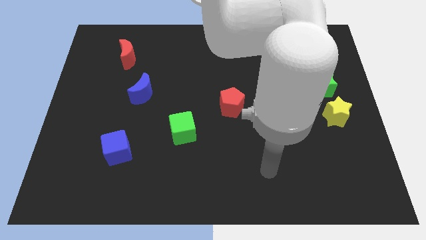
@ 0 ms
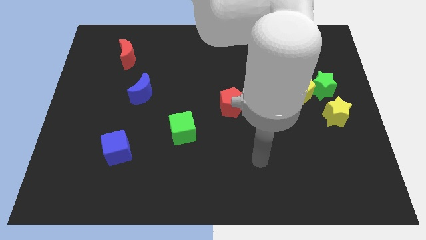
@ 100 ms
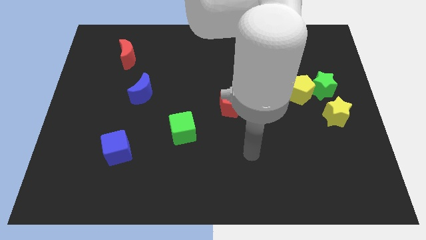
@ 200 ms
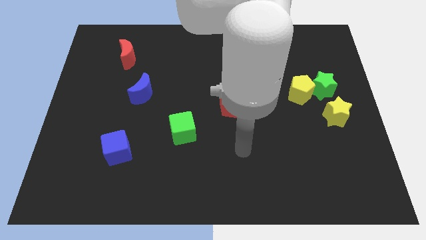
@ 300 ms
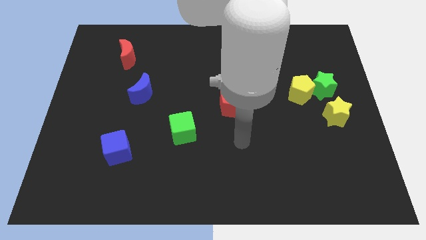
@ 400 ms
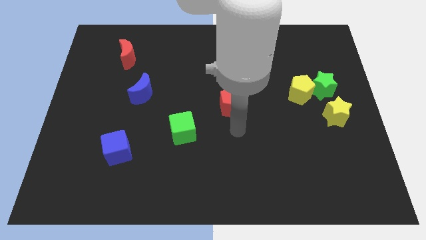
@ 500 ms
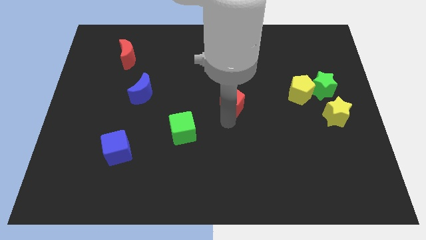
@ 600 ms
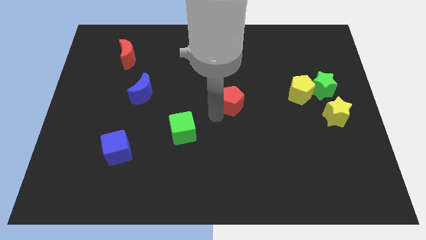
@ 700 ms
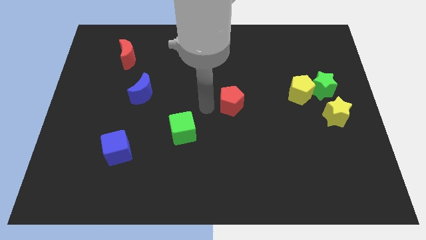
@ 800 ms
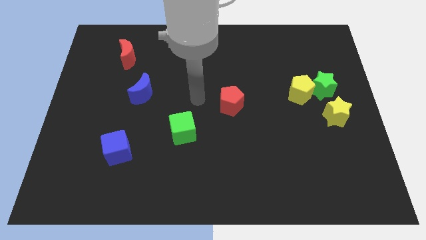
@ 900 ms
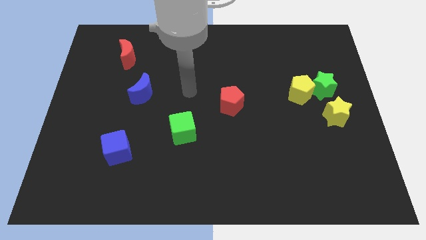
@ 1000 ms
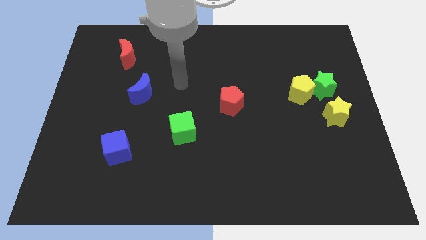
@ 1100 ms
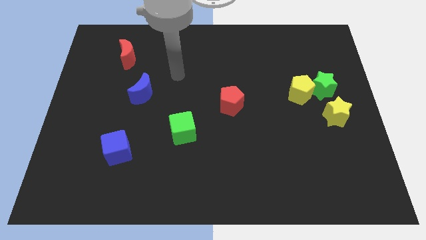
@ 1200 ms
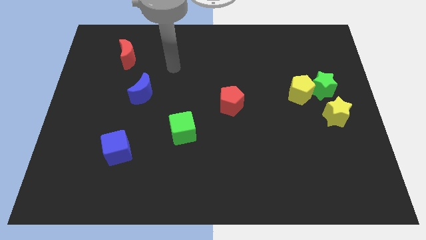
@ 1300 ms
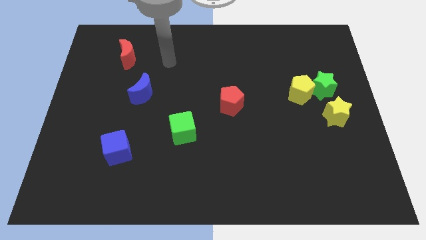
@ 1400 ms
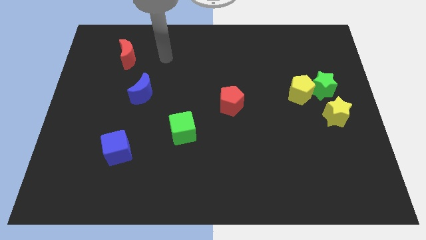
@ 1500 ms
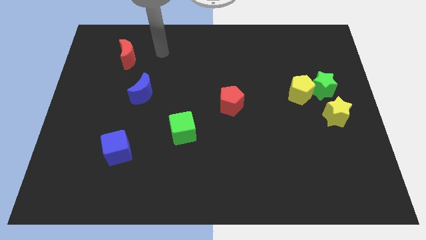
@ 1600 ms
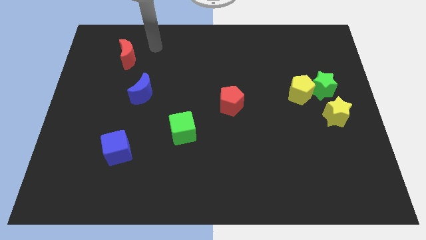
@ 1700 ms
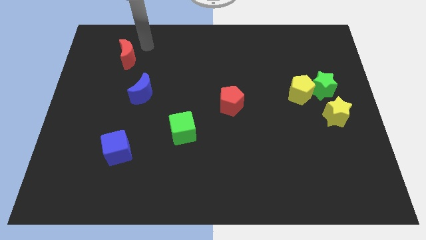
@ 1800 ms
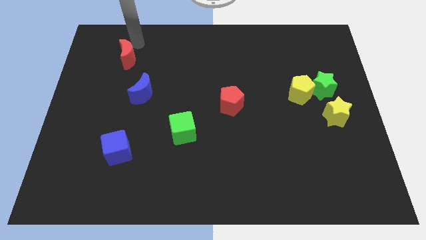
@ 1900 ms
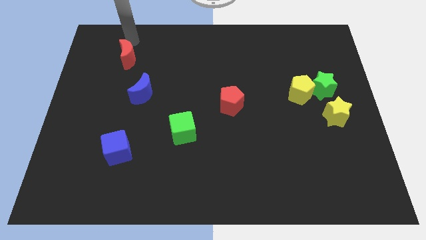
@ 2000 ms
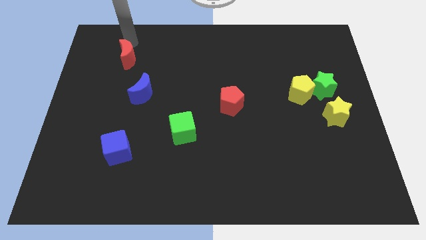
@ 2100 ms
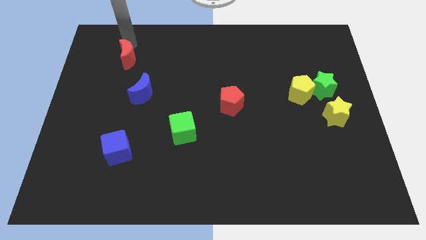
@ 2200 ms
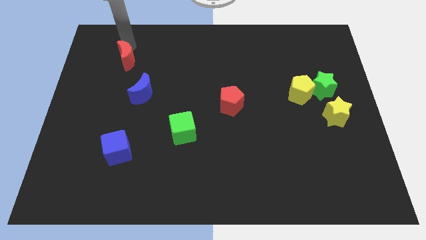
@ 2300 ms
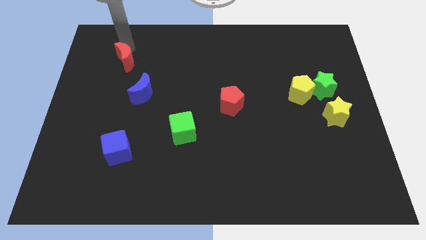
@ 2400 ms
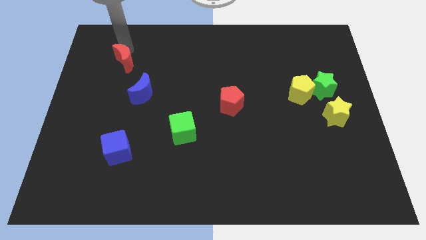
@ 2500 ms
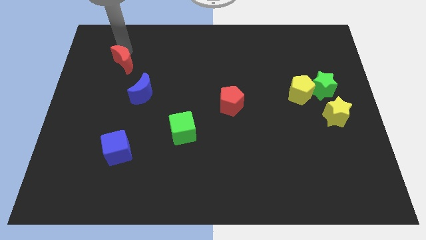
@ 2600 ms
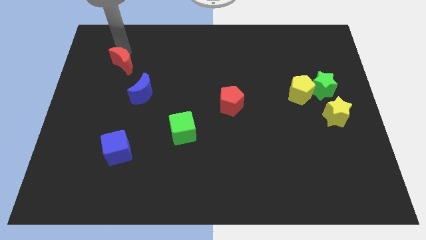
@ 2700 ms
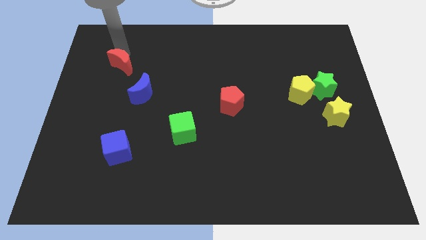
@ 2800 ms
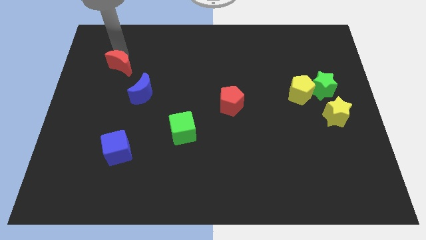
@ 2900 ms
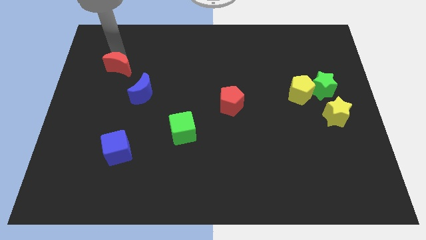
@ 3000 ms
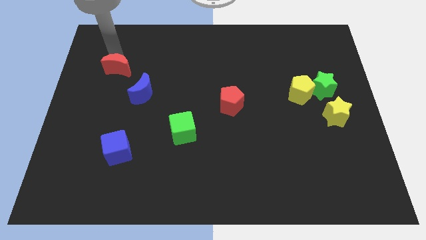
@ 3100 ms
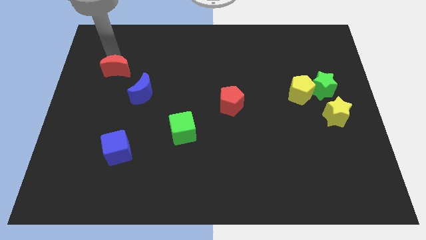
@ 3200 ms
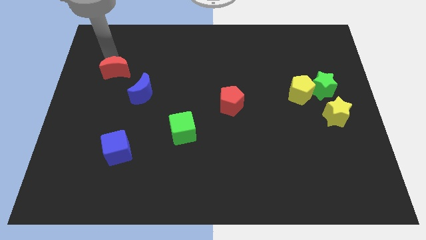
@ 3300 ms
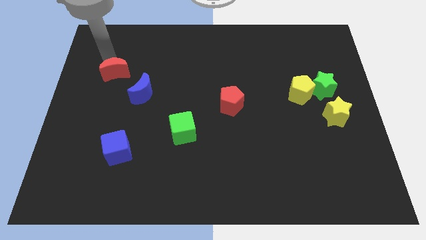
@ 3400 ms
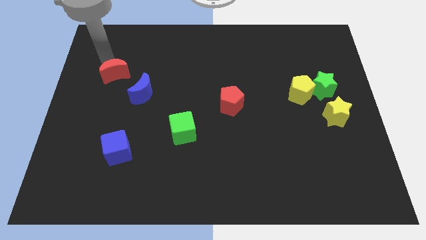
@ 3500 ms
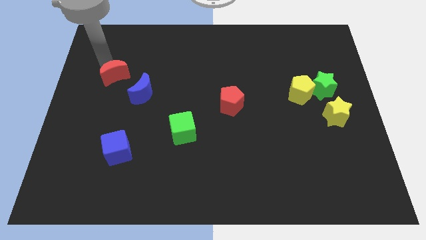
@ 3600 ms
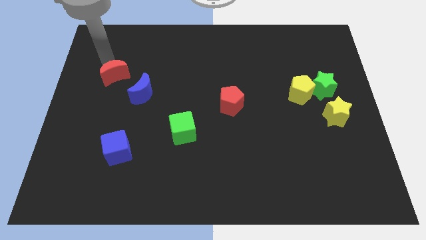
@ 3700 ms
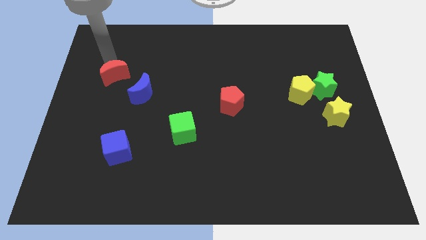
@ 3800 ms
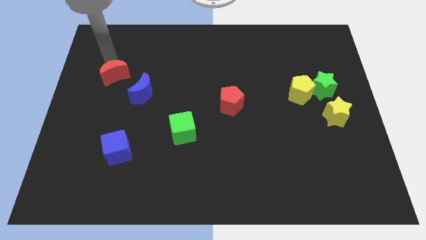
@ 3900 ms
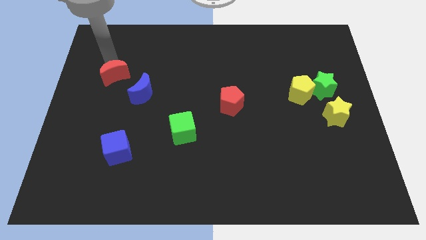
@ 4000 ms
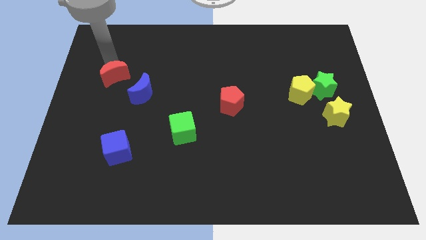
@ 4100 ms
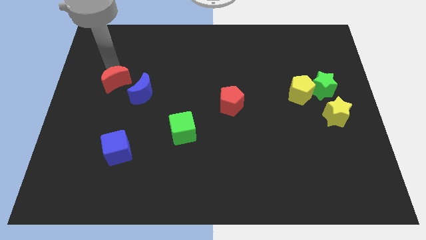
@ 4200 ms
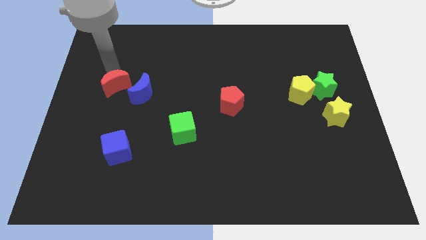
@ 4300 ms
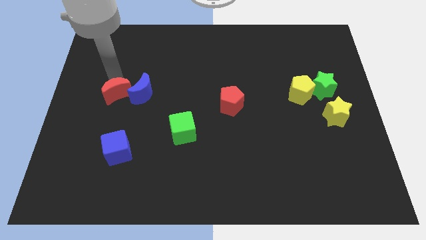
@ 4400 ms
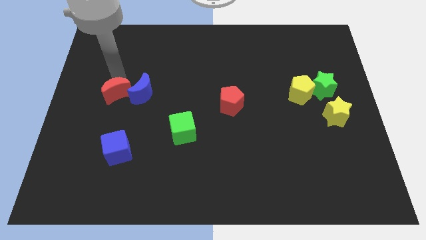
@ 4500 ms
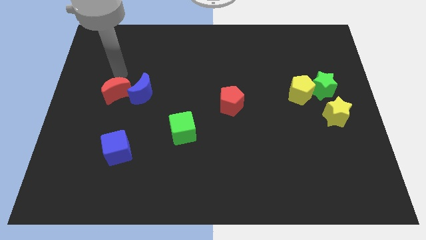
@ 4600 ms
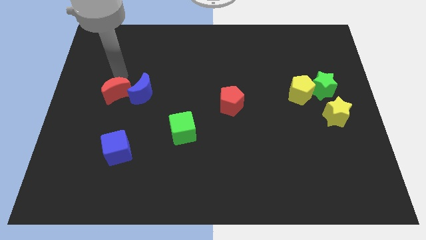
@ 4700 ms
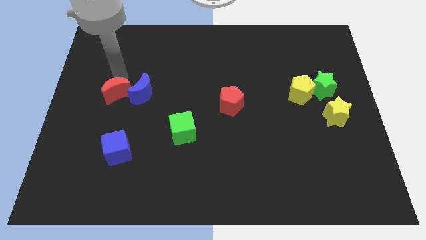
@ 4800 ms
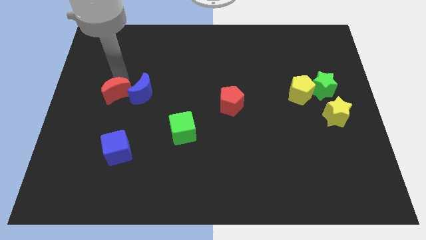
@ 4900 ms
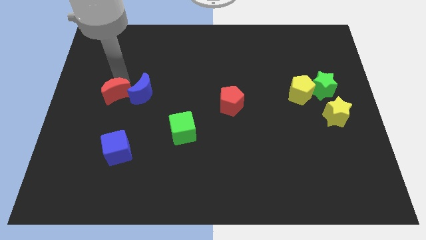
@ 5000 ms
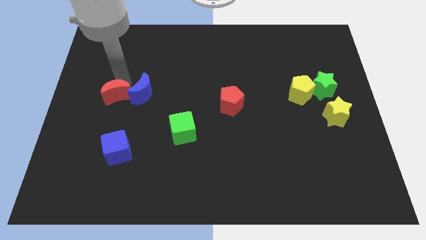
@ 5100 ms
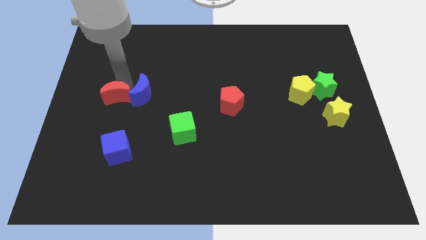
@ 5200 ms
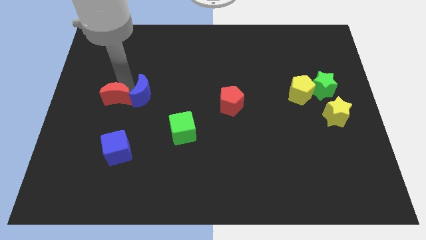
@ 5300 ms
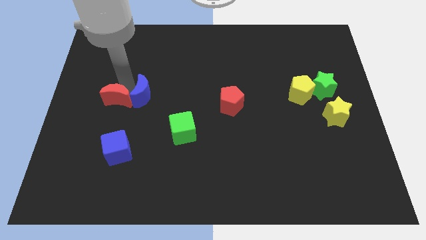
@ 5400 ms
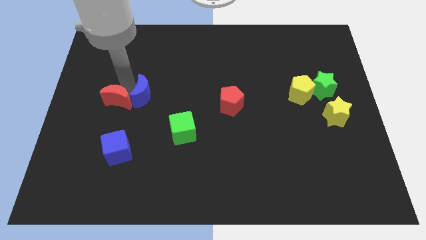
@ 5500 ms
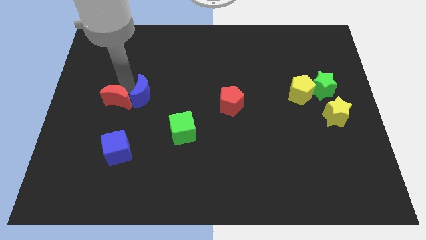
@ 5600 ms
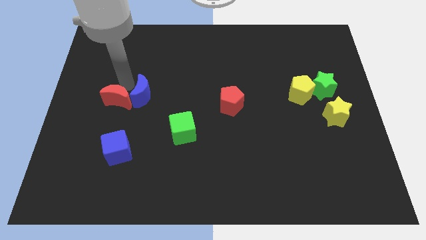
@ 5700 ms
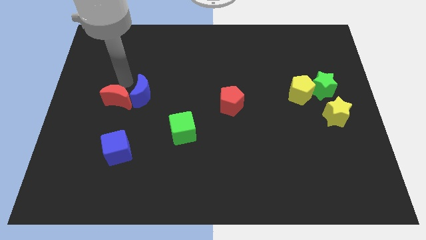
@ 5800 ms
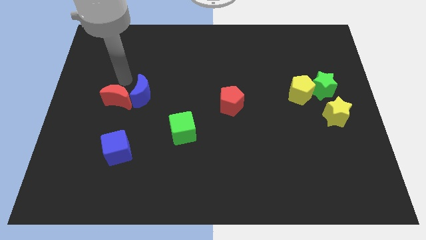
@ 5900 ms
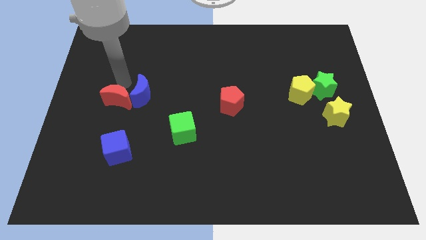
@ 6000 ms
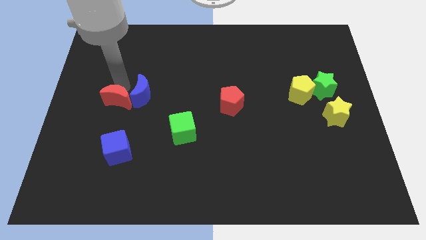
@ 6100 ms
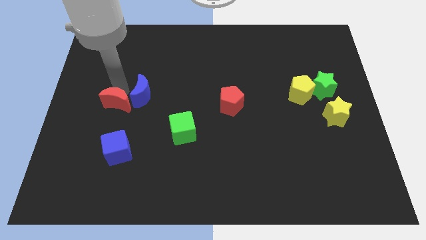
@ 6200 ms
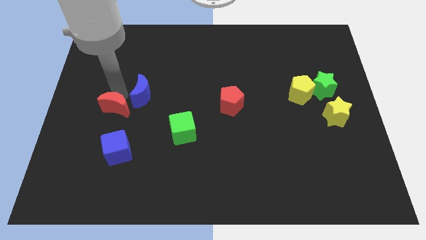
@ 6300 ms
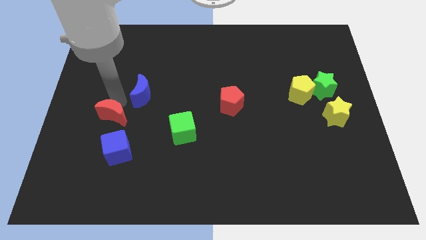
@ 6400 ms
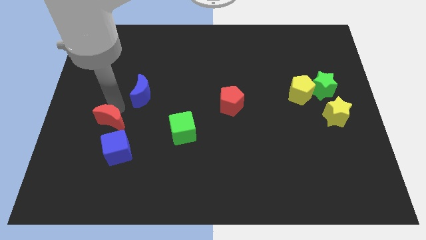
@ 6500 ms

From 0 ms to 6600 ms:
move the red moon down

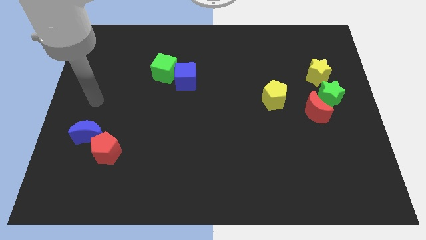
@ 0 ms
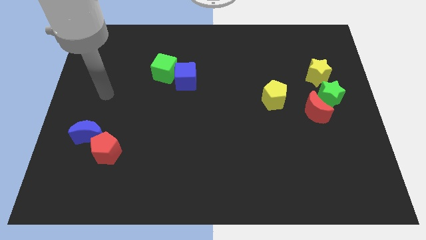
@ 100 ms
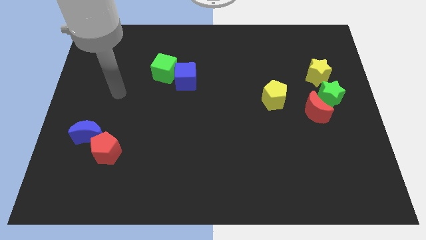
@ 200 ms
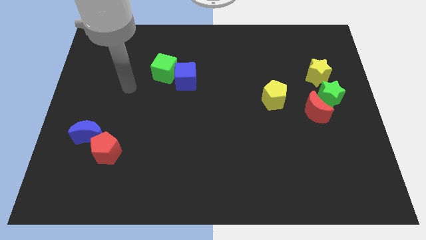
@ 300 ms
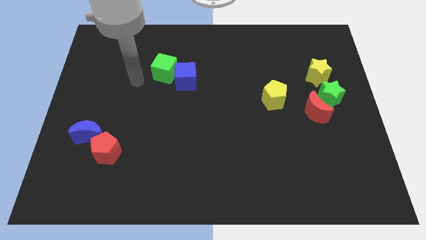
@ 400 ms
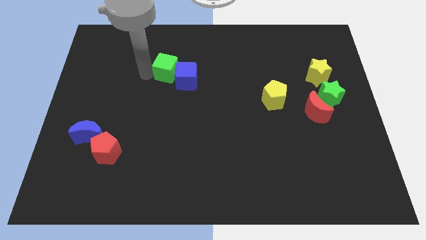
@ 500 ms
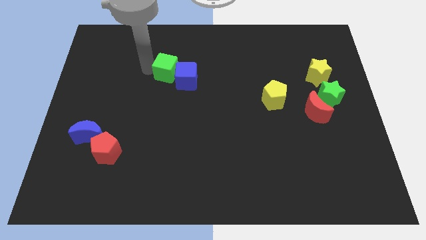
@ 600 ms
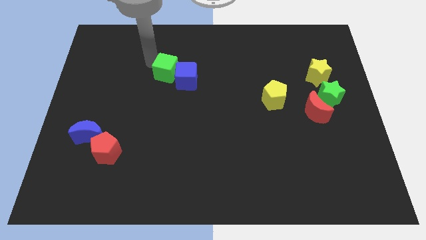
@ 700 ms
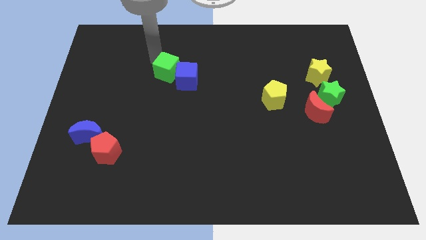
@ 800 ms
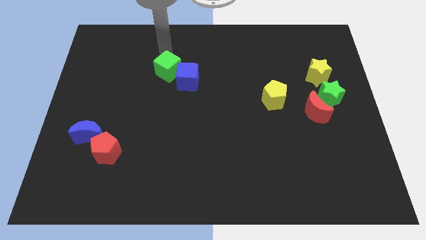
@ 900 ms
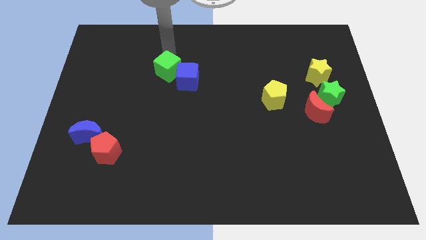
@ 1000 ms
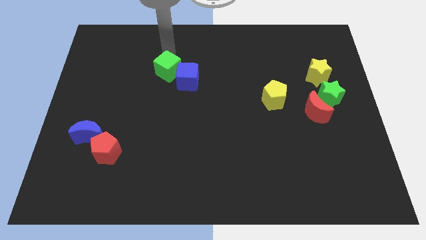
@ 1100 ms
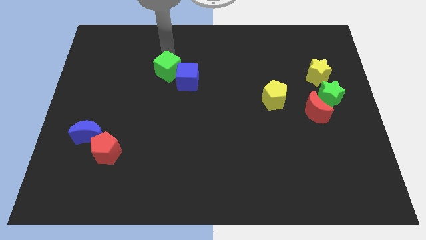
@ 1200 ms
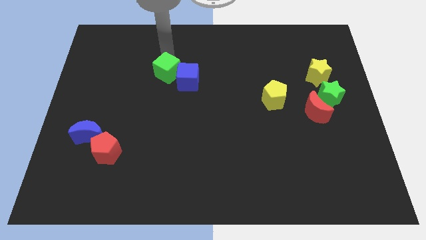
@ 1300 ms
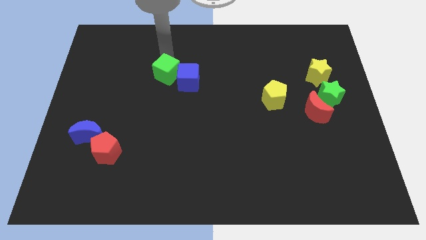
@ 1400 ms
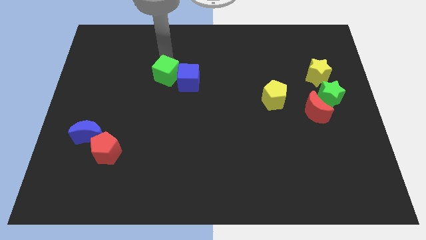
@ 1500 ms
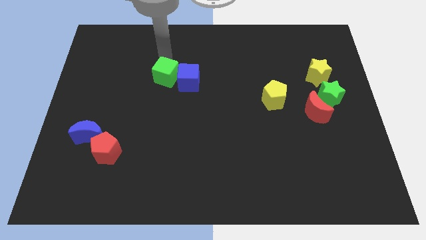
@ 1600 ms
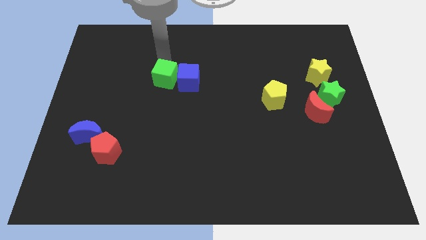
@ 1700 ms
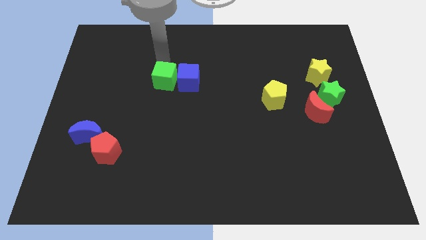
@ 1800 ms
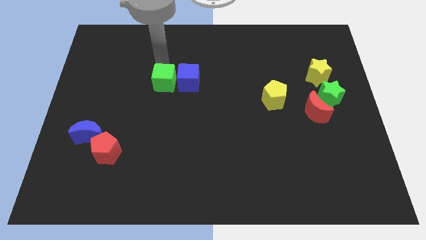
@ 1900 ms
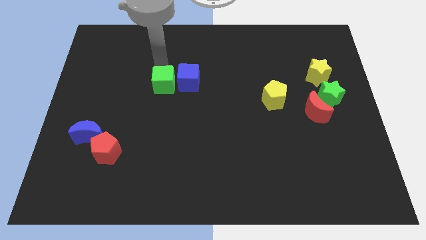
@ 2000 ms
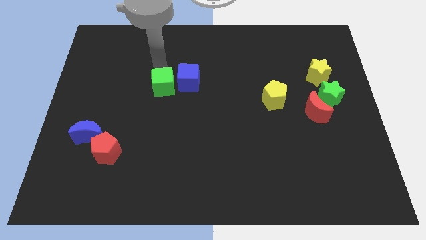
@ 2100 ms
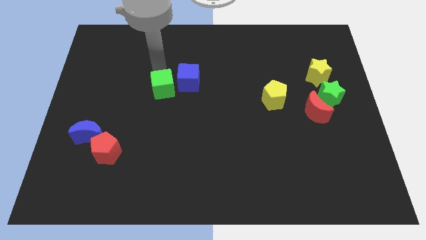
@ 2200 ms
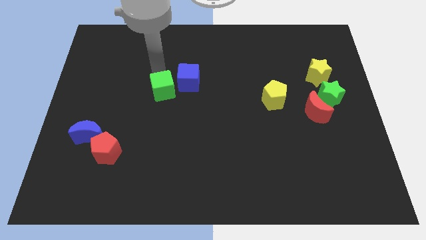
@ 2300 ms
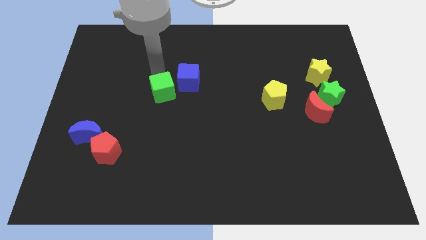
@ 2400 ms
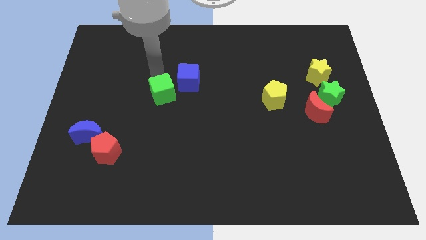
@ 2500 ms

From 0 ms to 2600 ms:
slightly push the green cube downwards
